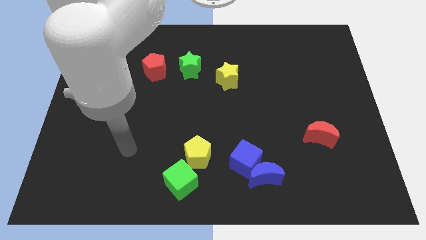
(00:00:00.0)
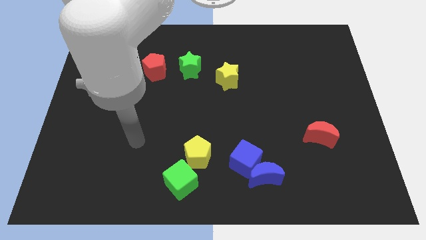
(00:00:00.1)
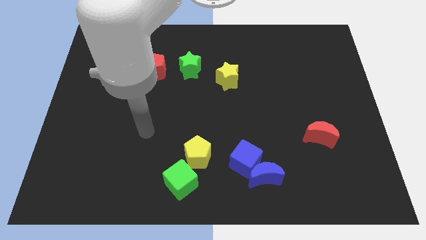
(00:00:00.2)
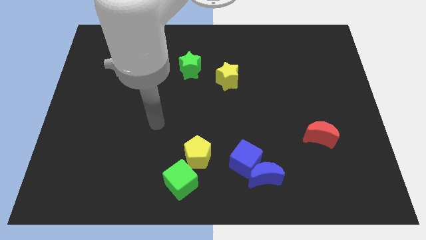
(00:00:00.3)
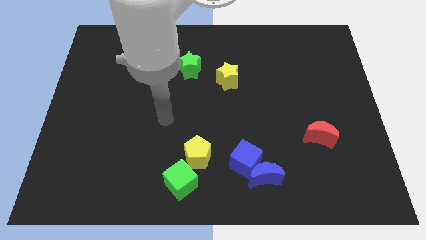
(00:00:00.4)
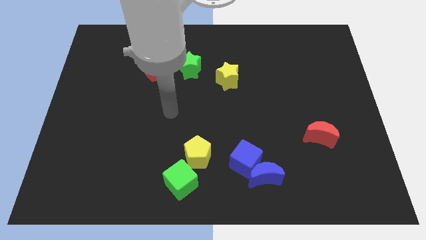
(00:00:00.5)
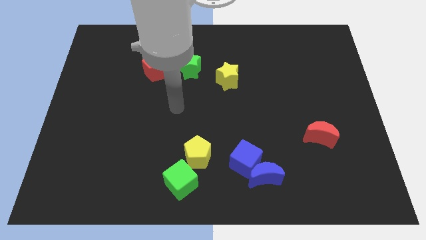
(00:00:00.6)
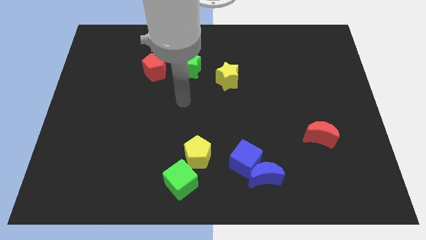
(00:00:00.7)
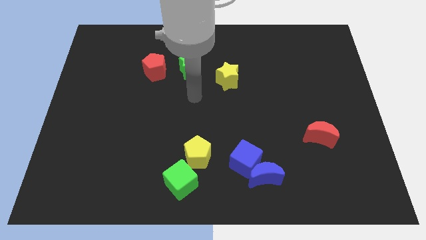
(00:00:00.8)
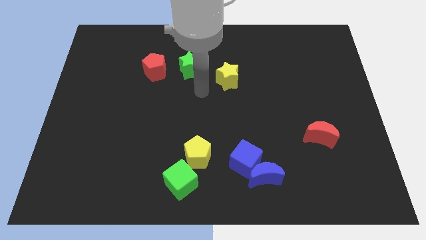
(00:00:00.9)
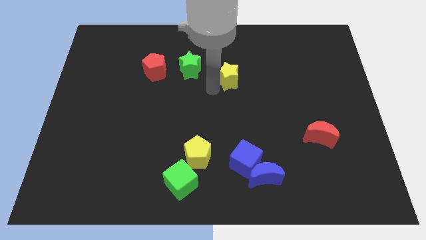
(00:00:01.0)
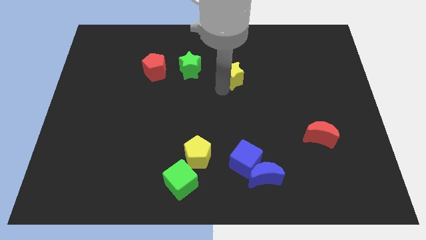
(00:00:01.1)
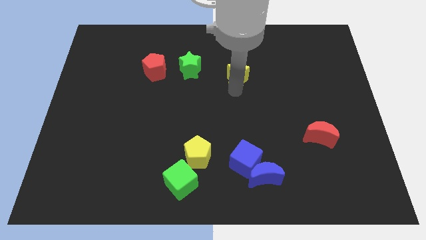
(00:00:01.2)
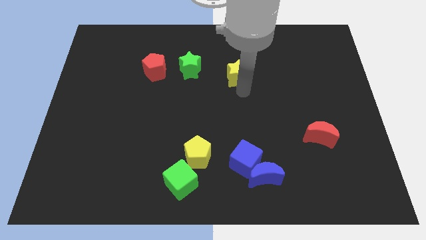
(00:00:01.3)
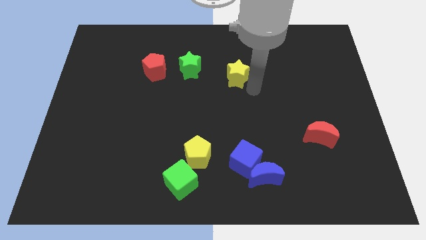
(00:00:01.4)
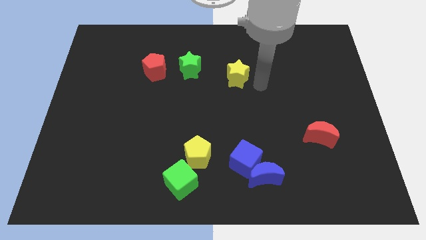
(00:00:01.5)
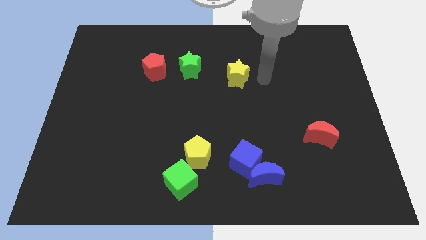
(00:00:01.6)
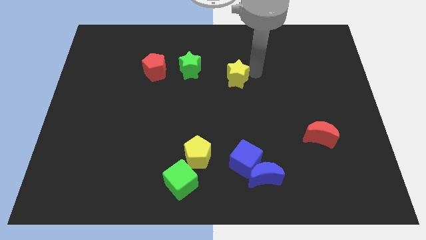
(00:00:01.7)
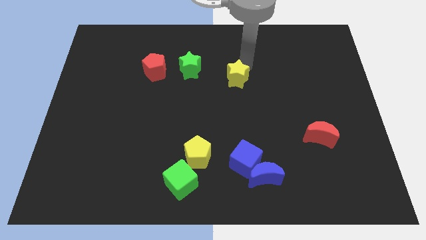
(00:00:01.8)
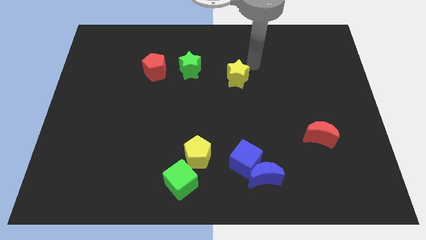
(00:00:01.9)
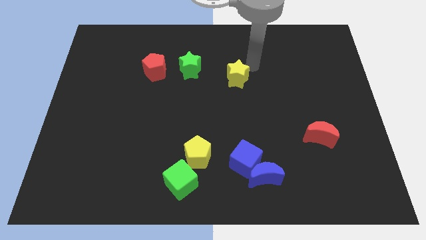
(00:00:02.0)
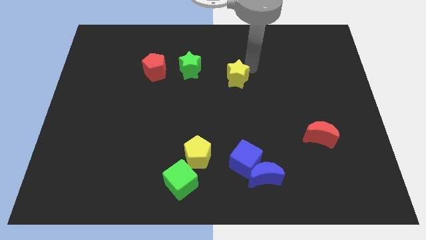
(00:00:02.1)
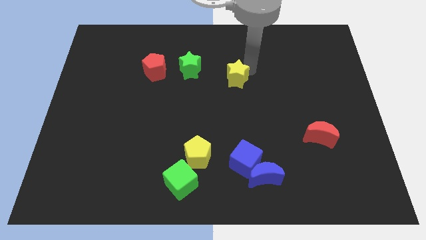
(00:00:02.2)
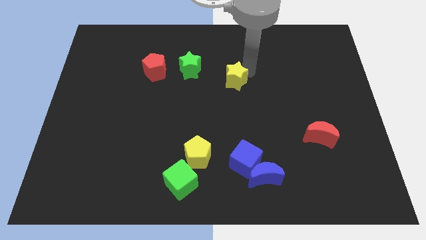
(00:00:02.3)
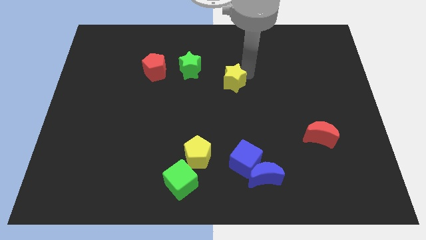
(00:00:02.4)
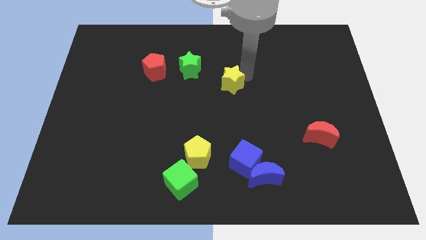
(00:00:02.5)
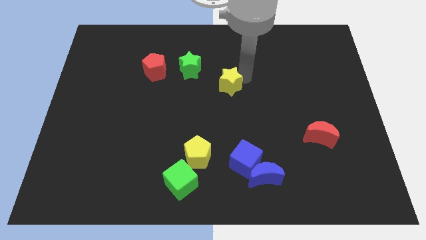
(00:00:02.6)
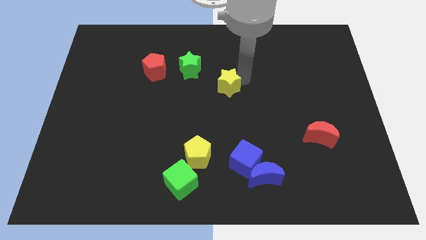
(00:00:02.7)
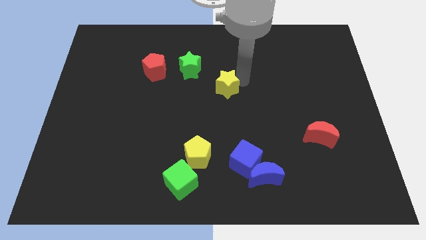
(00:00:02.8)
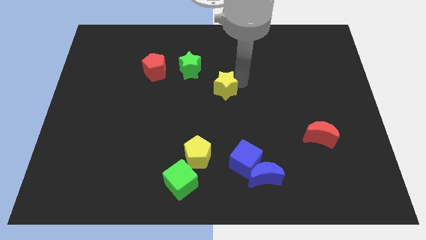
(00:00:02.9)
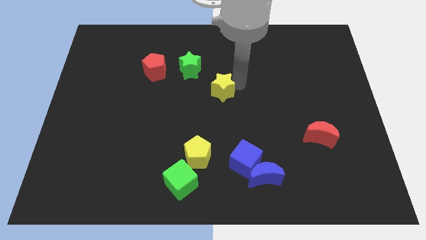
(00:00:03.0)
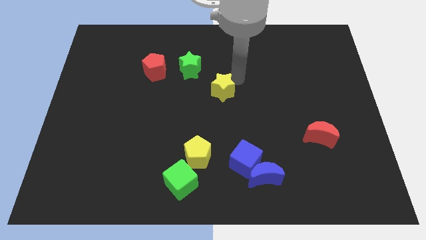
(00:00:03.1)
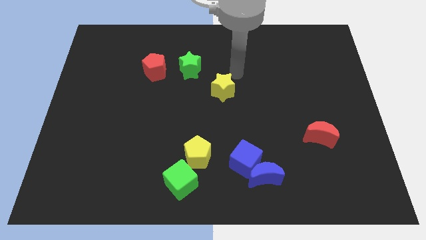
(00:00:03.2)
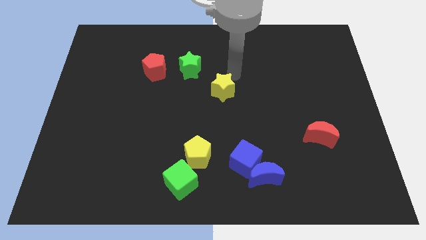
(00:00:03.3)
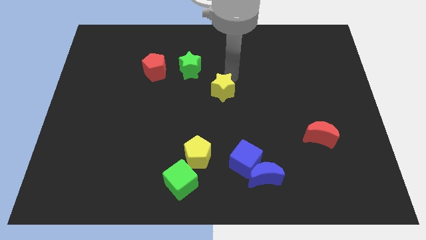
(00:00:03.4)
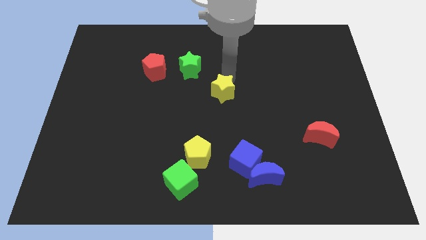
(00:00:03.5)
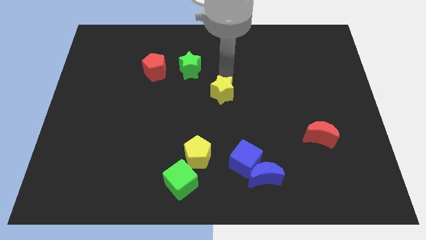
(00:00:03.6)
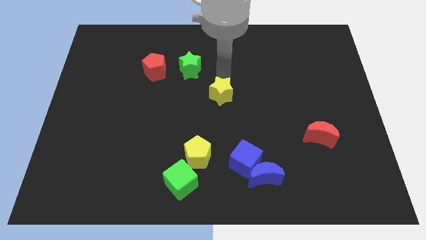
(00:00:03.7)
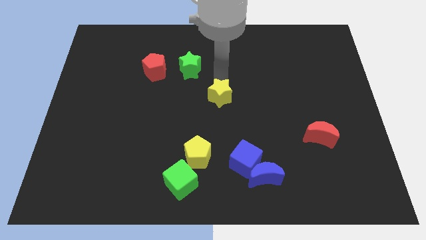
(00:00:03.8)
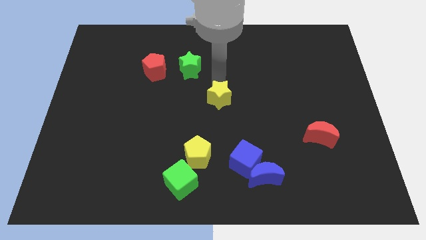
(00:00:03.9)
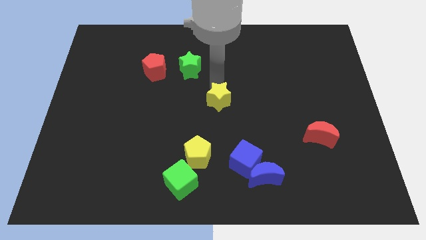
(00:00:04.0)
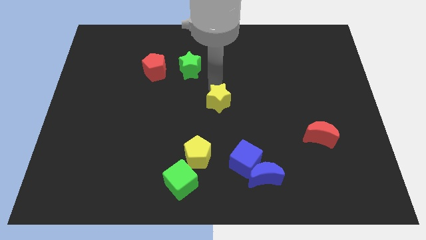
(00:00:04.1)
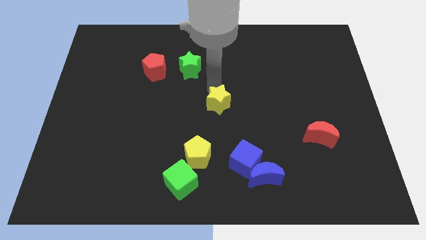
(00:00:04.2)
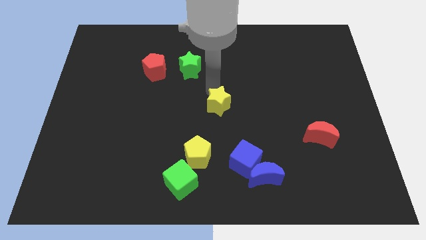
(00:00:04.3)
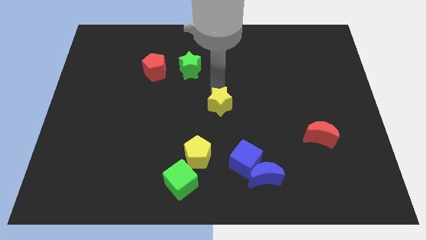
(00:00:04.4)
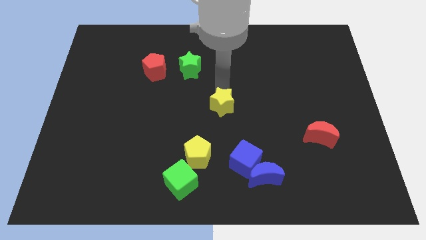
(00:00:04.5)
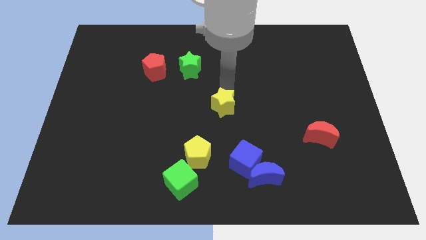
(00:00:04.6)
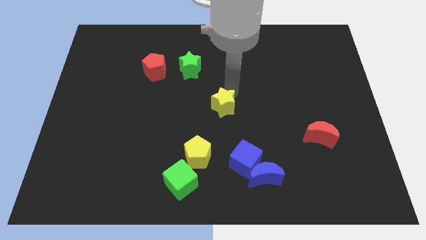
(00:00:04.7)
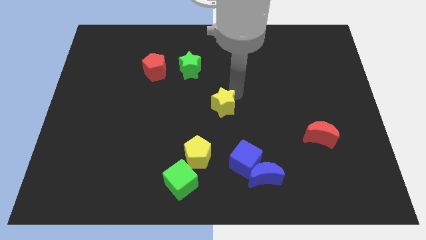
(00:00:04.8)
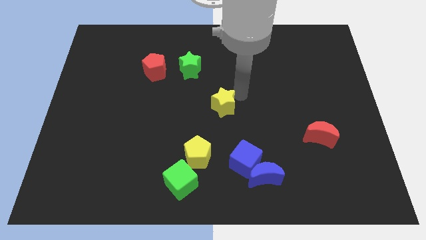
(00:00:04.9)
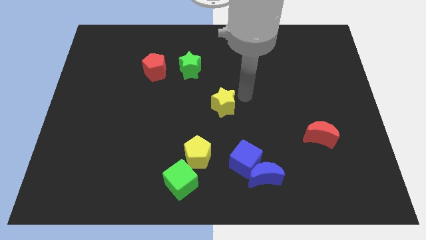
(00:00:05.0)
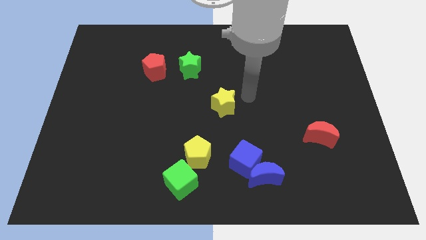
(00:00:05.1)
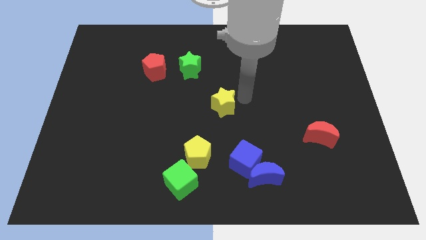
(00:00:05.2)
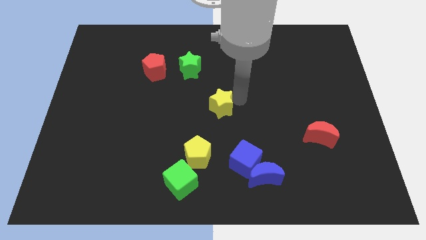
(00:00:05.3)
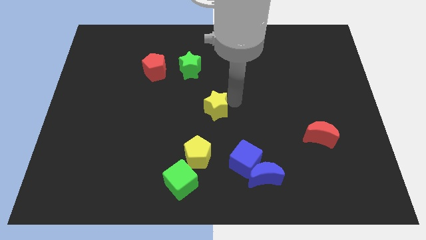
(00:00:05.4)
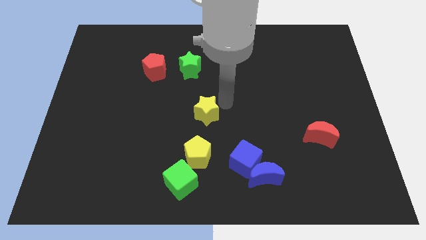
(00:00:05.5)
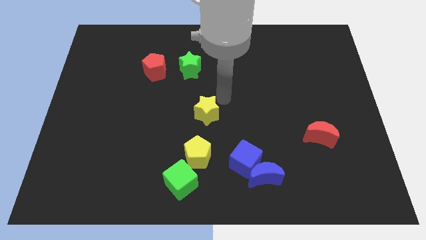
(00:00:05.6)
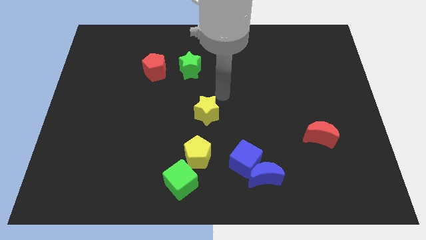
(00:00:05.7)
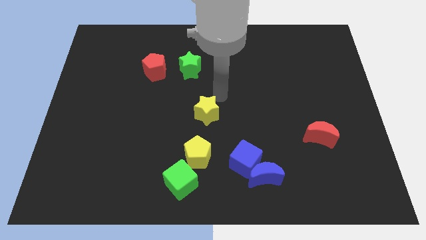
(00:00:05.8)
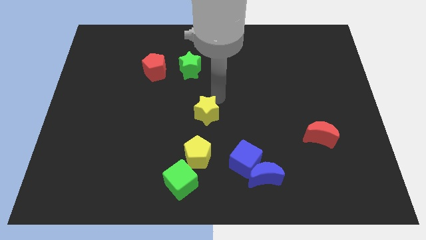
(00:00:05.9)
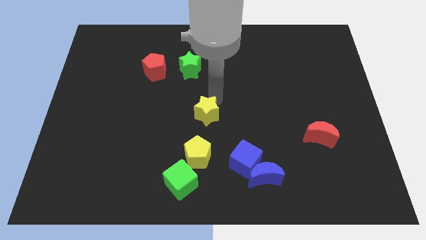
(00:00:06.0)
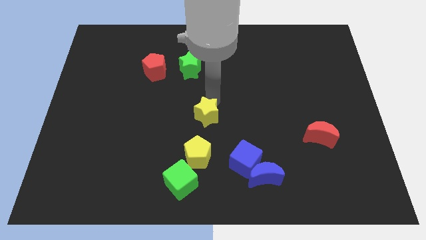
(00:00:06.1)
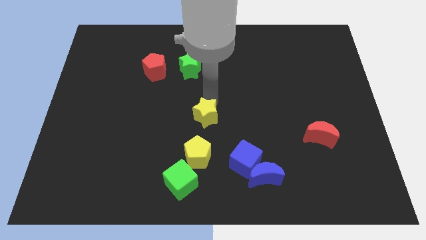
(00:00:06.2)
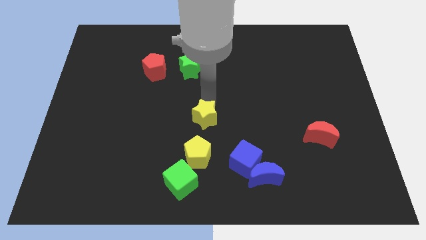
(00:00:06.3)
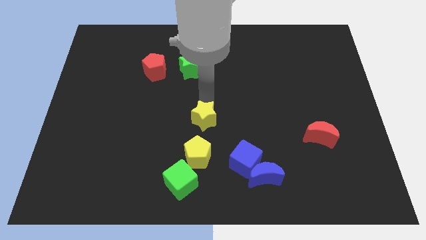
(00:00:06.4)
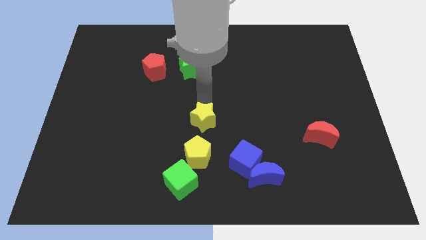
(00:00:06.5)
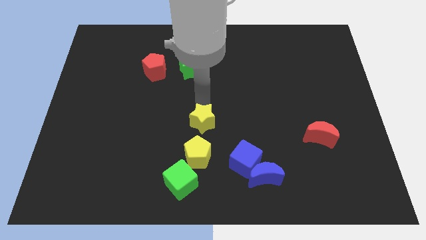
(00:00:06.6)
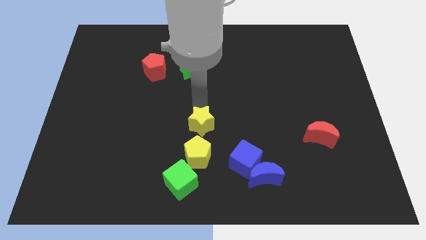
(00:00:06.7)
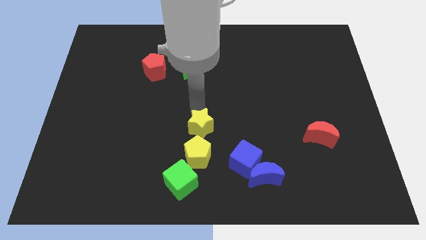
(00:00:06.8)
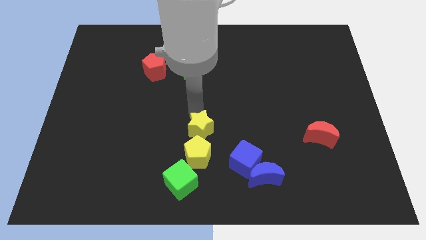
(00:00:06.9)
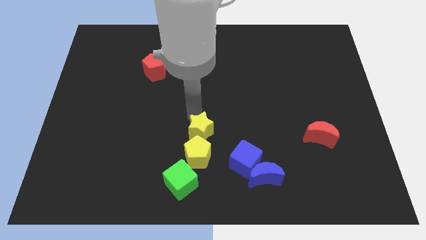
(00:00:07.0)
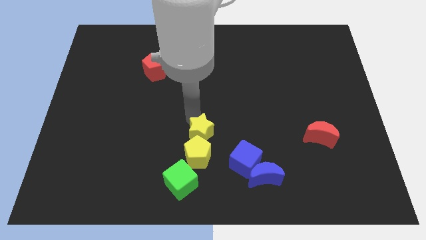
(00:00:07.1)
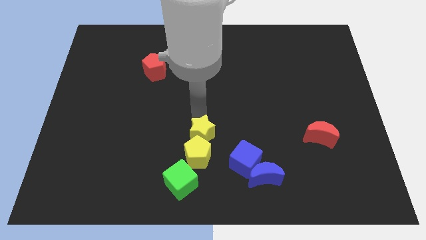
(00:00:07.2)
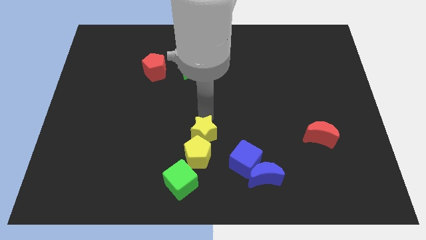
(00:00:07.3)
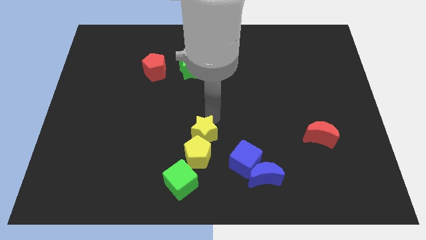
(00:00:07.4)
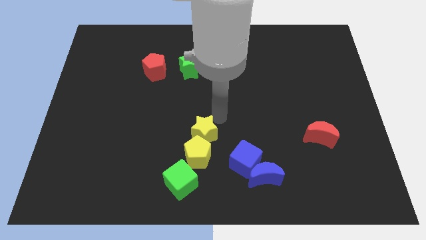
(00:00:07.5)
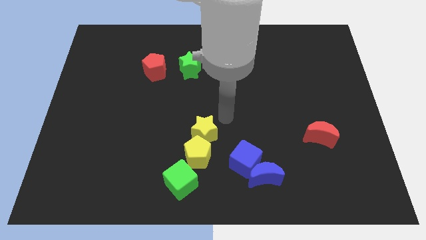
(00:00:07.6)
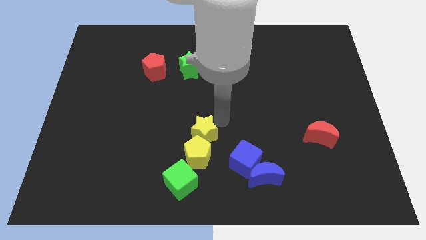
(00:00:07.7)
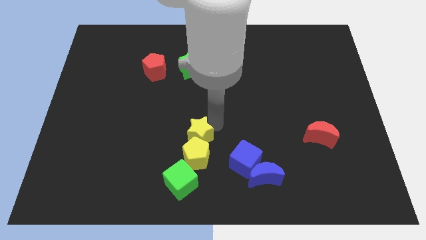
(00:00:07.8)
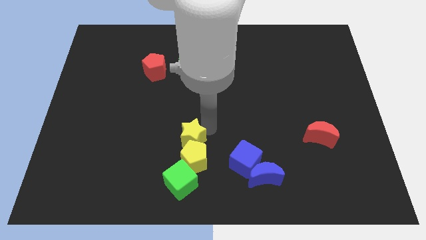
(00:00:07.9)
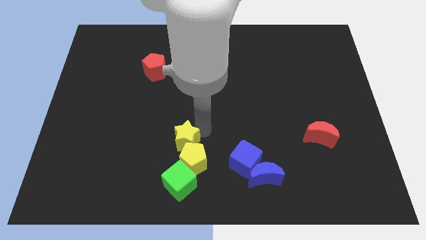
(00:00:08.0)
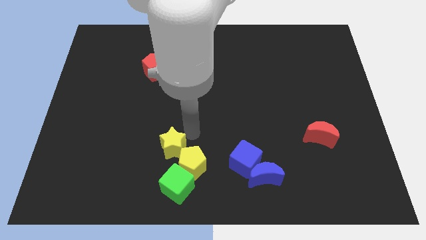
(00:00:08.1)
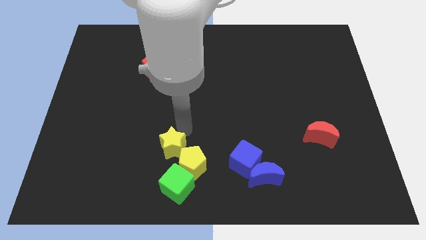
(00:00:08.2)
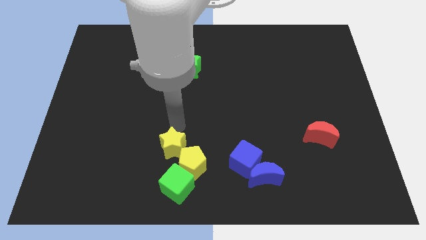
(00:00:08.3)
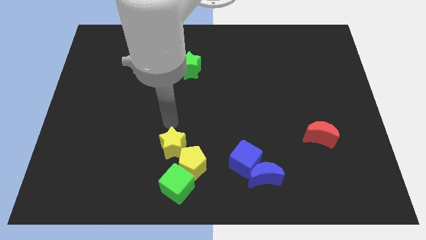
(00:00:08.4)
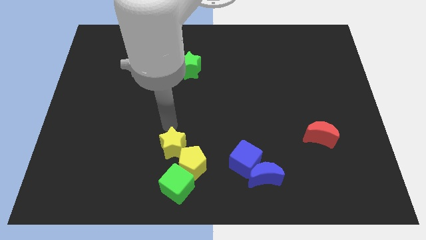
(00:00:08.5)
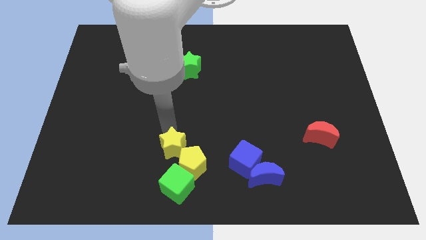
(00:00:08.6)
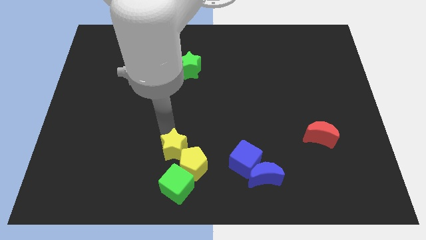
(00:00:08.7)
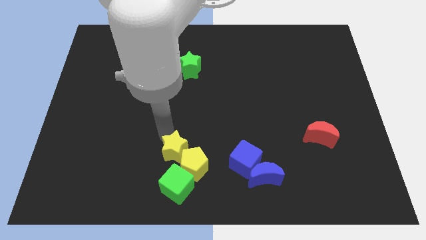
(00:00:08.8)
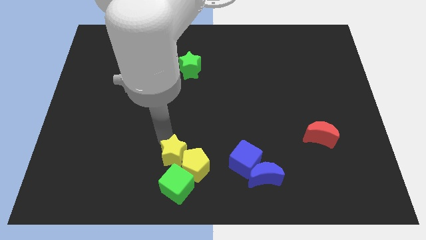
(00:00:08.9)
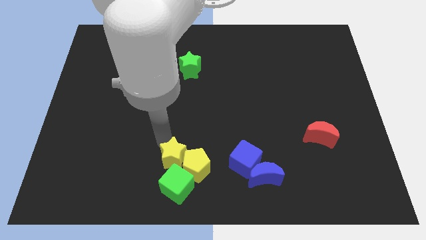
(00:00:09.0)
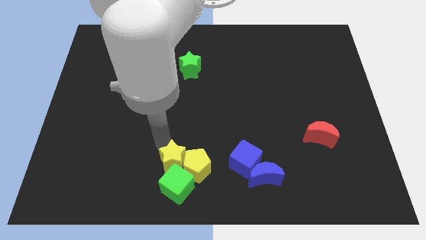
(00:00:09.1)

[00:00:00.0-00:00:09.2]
push the yellow star close to the green cube
